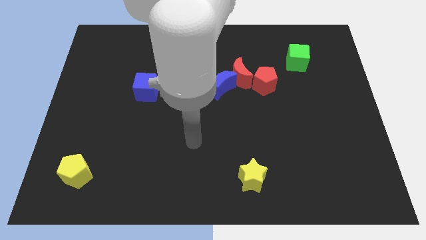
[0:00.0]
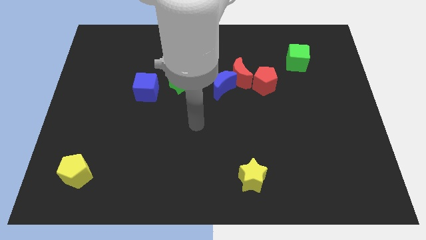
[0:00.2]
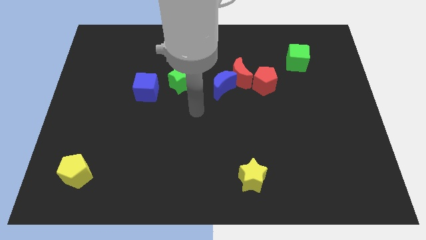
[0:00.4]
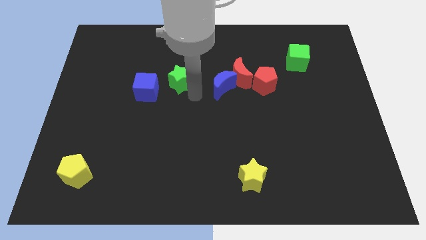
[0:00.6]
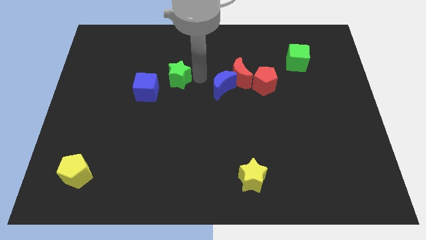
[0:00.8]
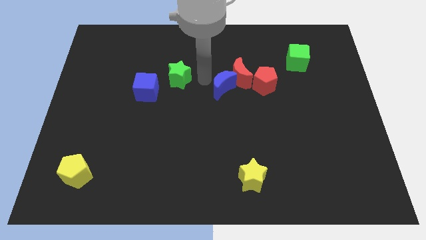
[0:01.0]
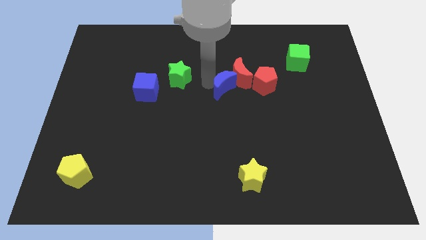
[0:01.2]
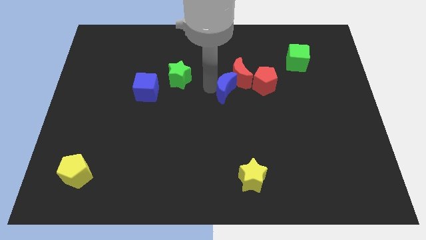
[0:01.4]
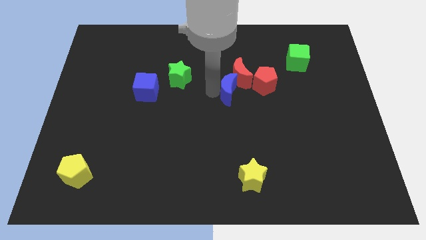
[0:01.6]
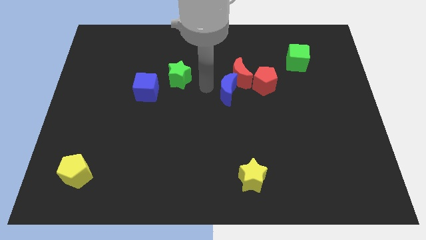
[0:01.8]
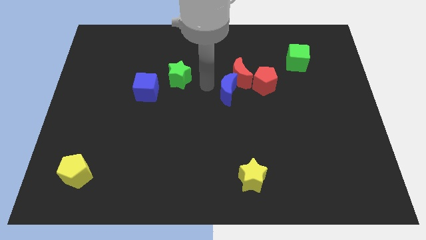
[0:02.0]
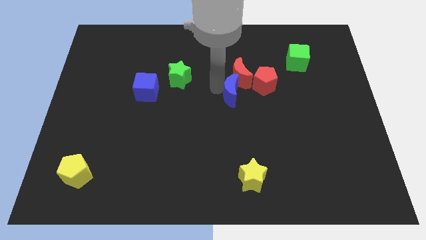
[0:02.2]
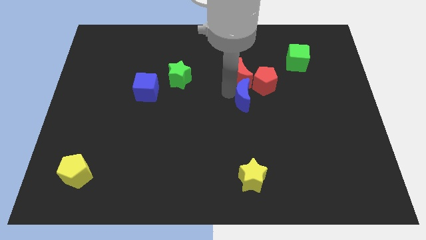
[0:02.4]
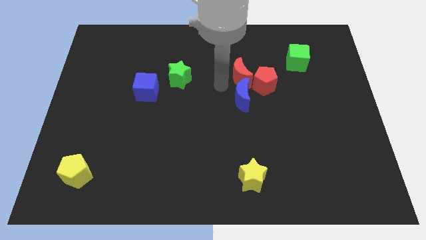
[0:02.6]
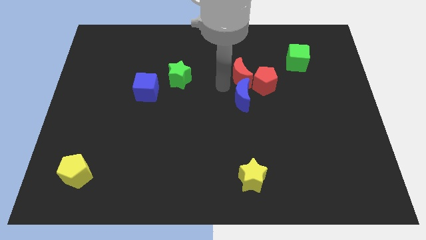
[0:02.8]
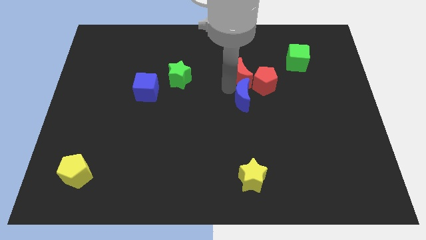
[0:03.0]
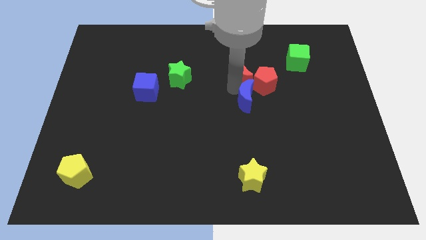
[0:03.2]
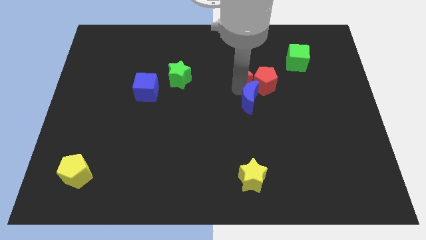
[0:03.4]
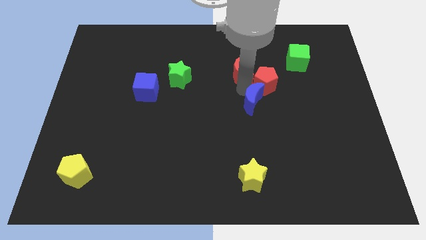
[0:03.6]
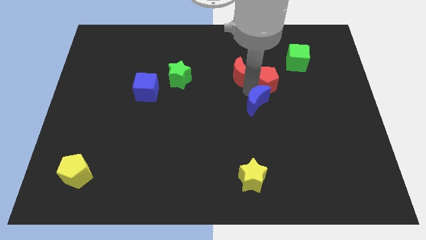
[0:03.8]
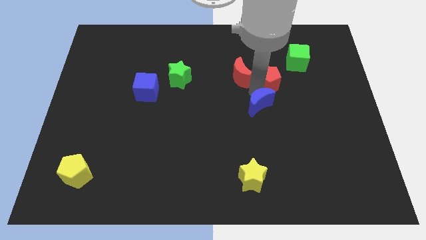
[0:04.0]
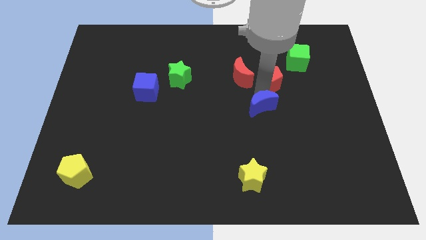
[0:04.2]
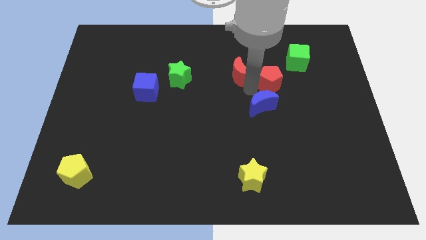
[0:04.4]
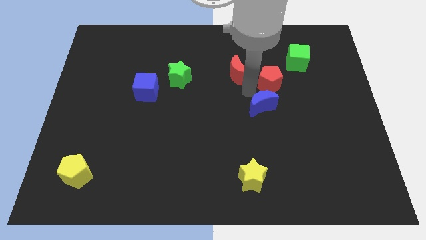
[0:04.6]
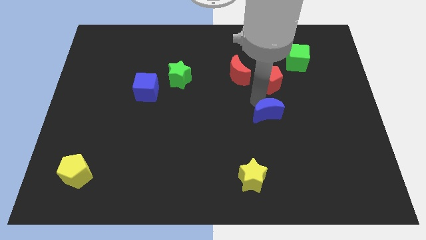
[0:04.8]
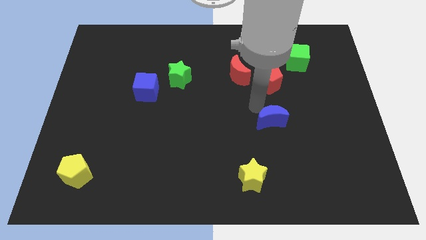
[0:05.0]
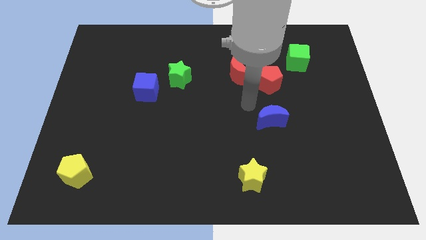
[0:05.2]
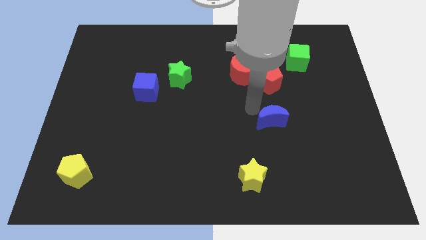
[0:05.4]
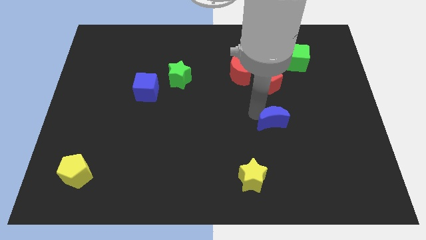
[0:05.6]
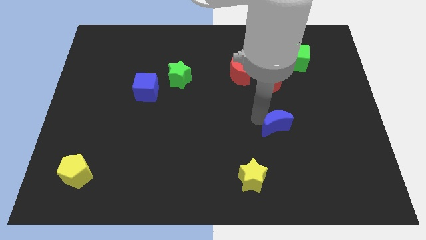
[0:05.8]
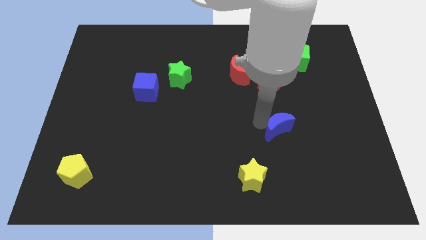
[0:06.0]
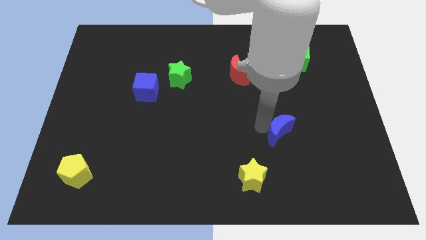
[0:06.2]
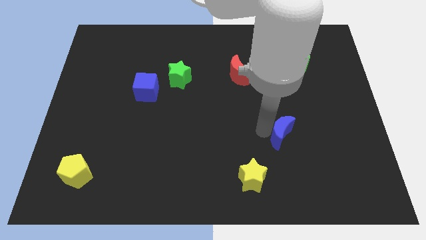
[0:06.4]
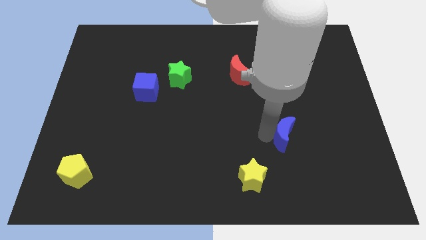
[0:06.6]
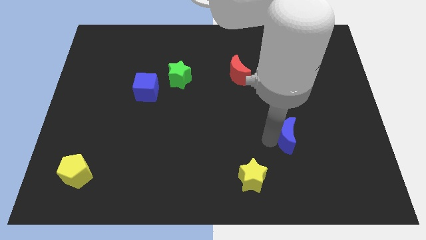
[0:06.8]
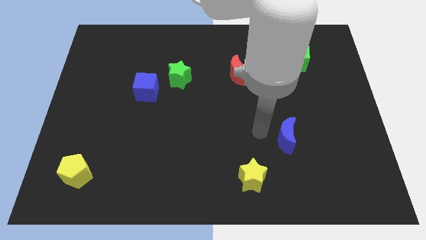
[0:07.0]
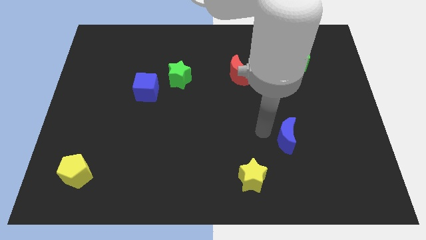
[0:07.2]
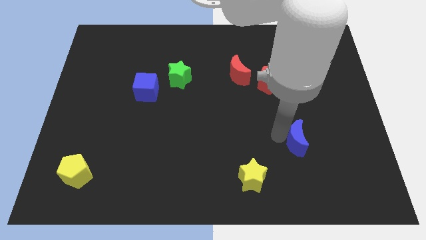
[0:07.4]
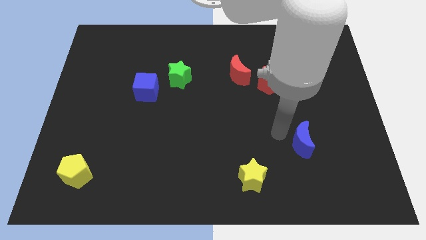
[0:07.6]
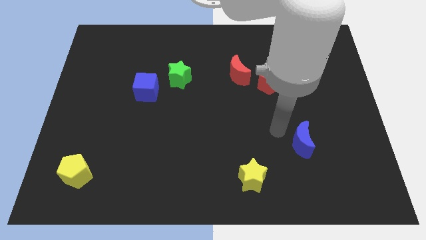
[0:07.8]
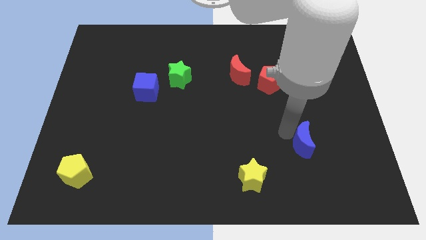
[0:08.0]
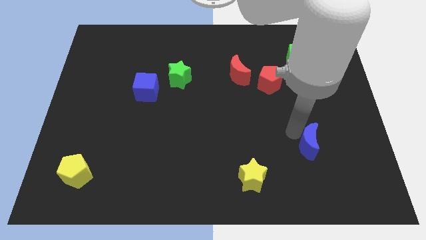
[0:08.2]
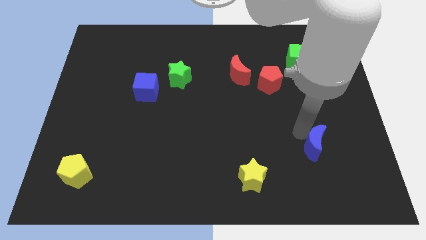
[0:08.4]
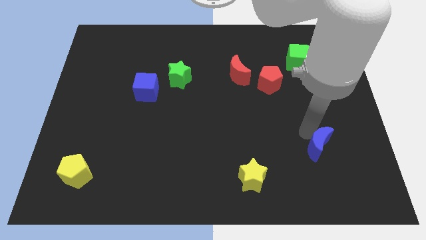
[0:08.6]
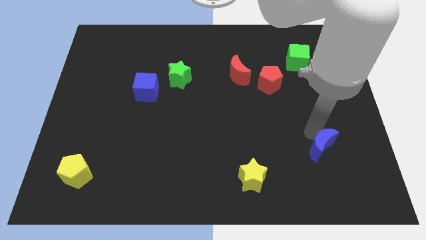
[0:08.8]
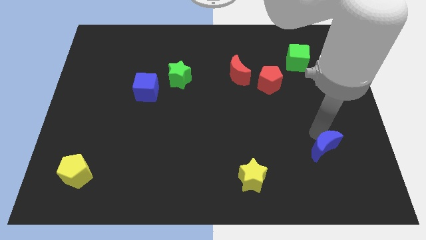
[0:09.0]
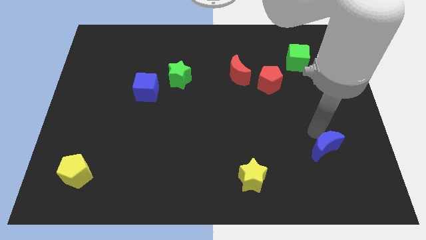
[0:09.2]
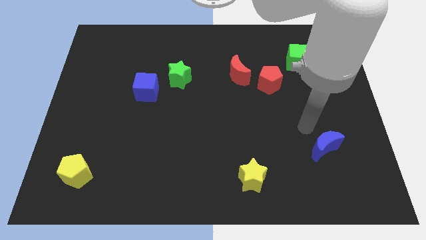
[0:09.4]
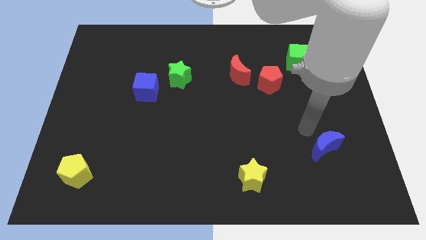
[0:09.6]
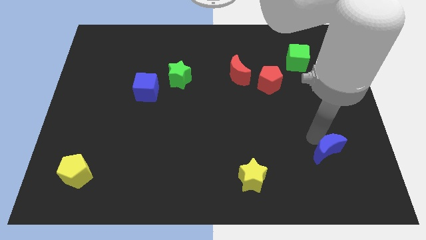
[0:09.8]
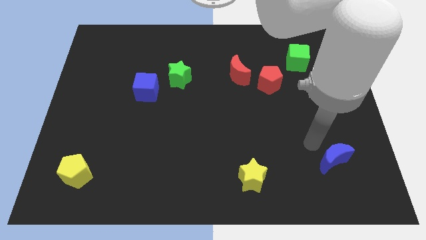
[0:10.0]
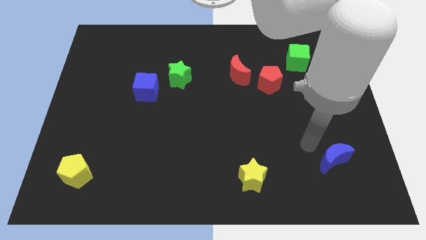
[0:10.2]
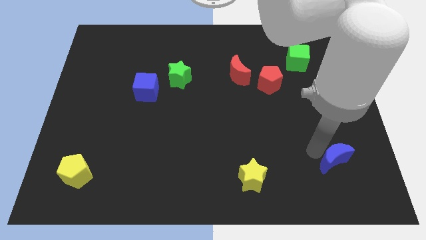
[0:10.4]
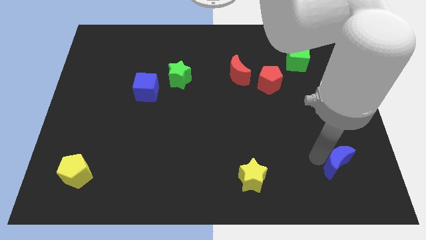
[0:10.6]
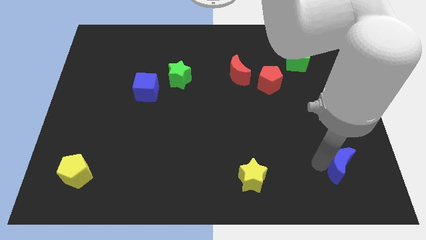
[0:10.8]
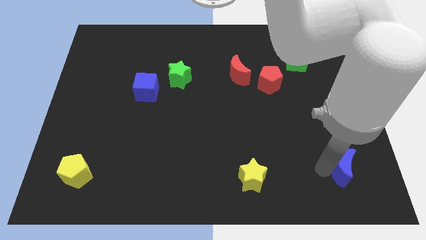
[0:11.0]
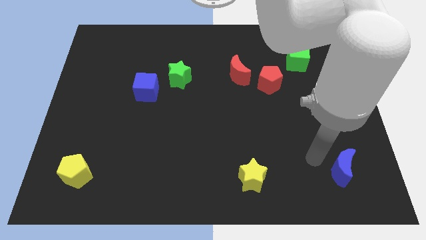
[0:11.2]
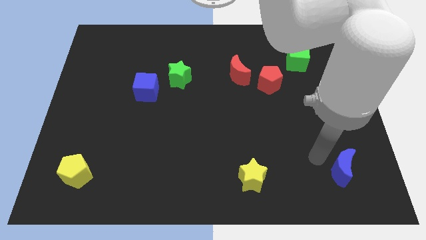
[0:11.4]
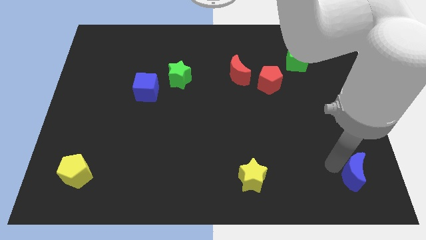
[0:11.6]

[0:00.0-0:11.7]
slide the blue moon to the lower right corner

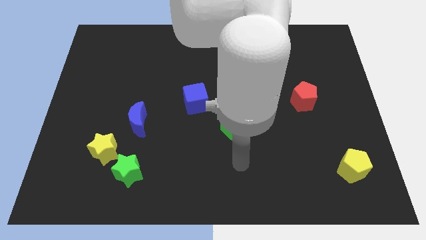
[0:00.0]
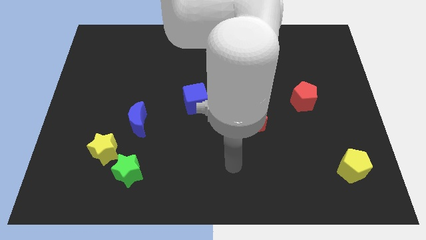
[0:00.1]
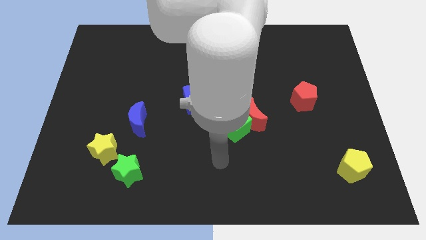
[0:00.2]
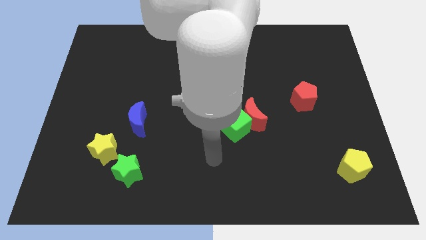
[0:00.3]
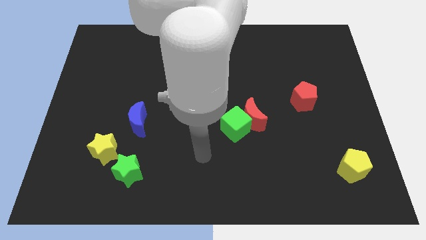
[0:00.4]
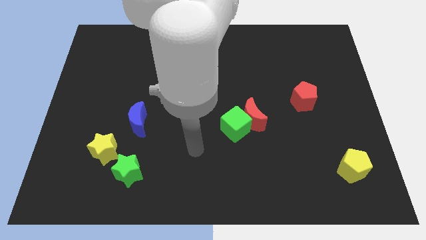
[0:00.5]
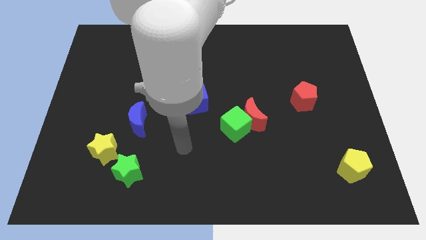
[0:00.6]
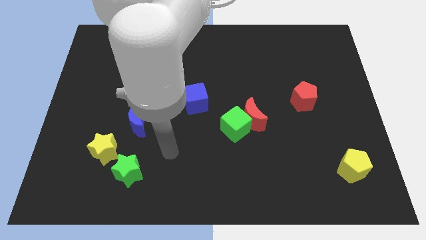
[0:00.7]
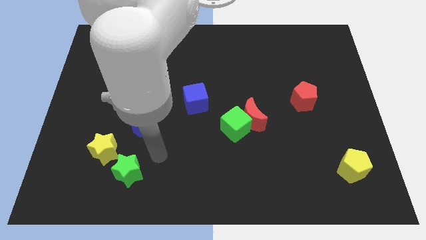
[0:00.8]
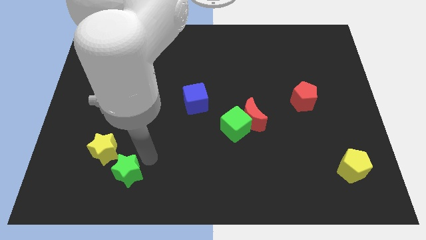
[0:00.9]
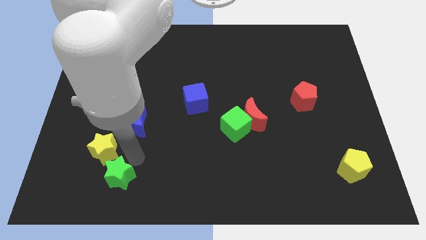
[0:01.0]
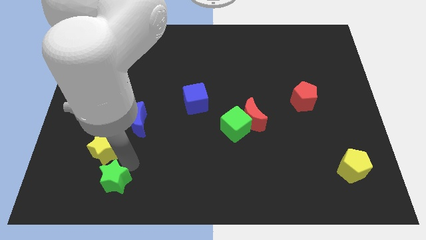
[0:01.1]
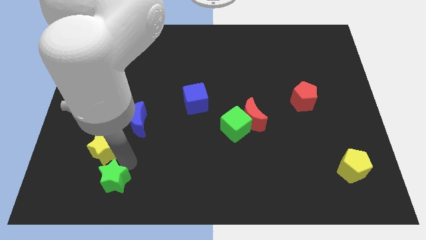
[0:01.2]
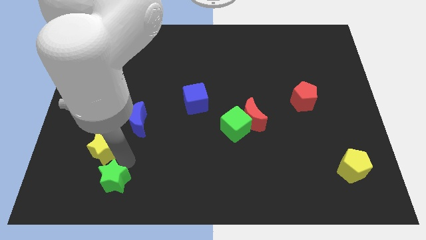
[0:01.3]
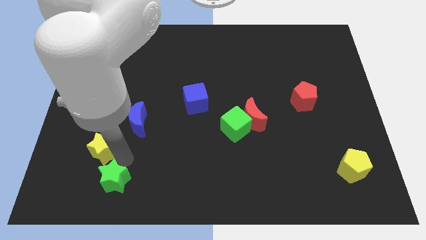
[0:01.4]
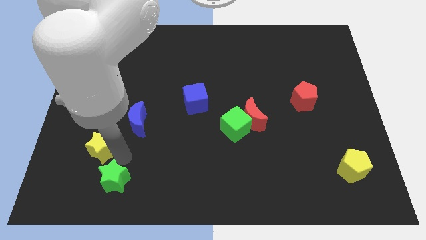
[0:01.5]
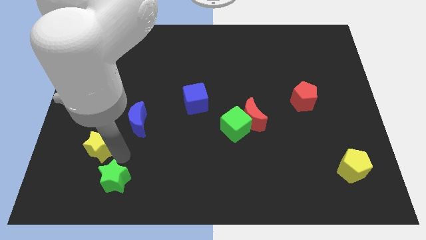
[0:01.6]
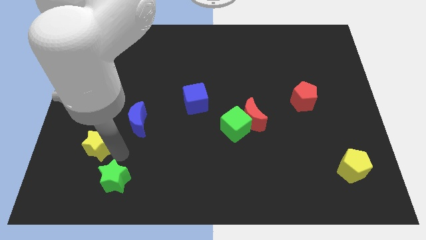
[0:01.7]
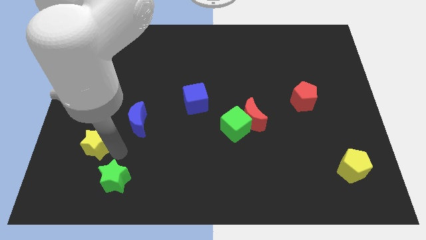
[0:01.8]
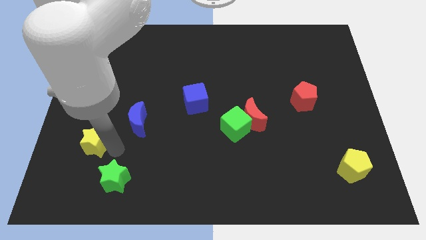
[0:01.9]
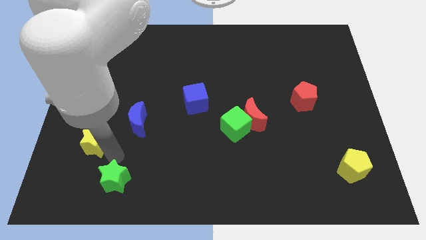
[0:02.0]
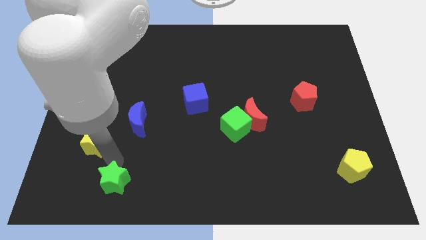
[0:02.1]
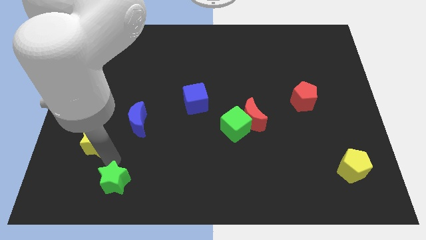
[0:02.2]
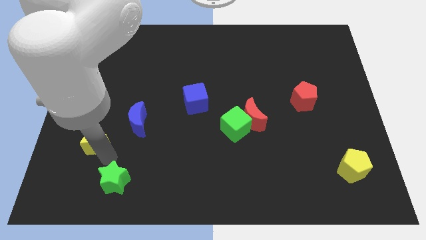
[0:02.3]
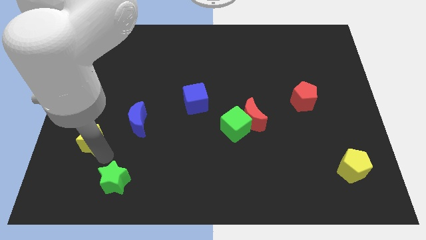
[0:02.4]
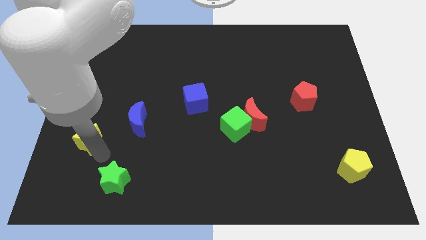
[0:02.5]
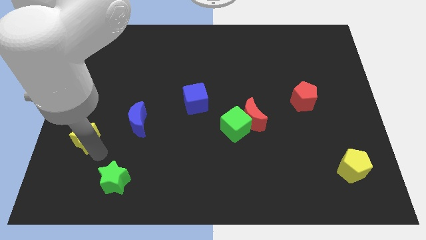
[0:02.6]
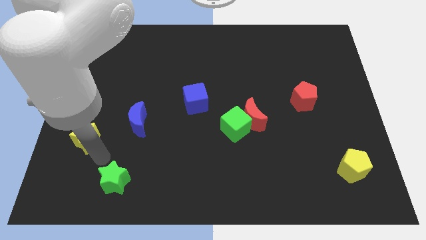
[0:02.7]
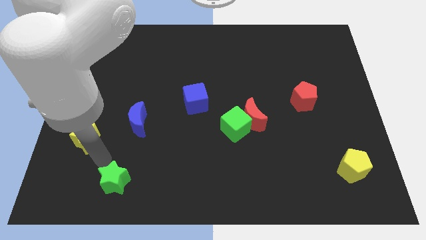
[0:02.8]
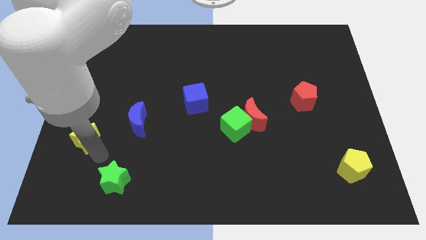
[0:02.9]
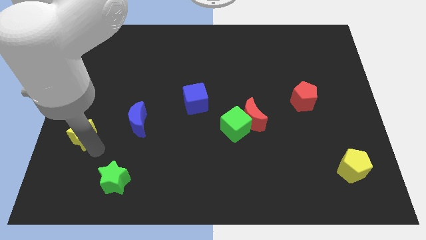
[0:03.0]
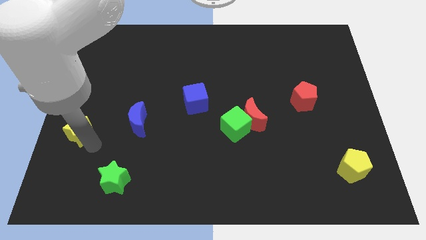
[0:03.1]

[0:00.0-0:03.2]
put the yellow star to the left side
